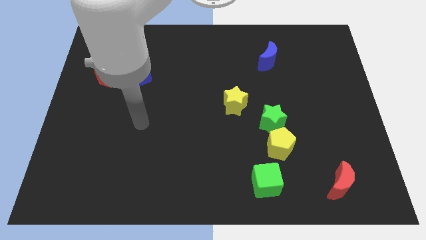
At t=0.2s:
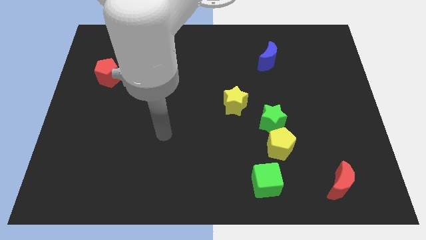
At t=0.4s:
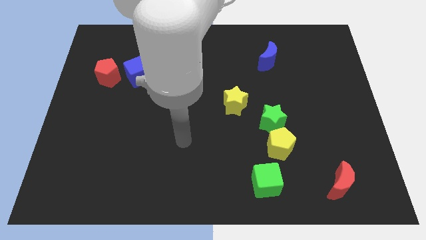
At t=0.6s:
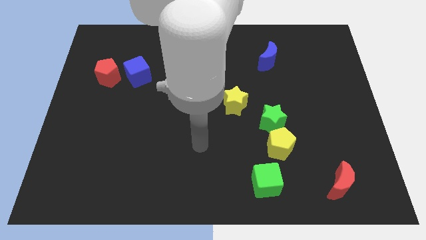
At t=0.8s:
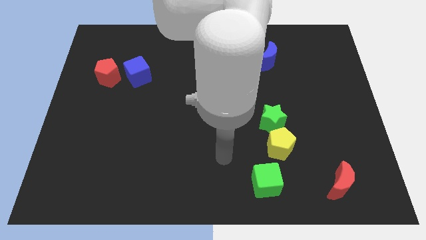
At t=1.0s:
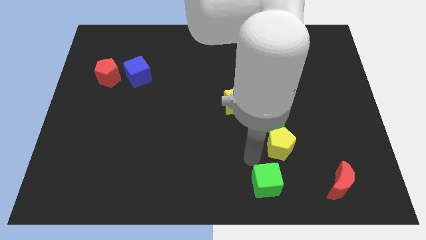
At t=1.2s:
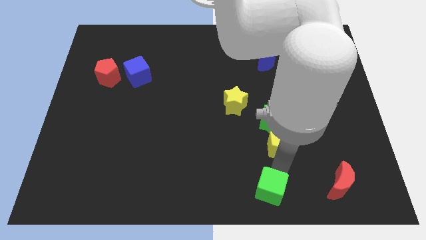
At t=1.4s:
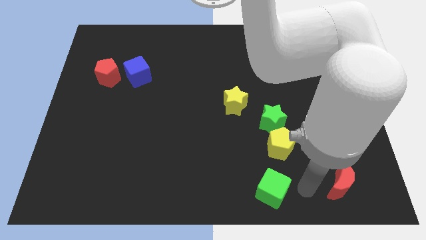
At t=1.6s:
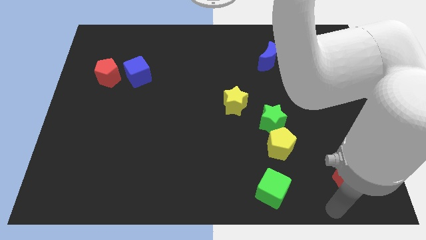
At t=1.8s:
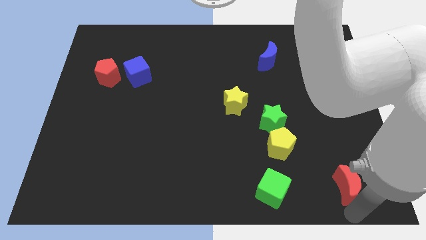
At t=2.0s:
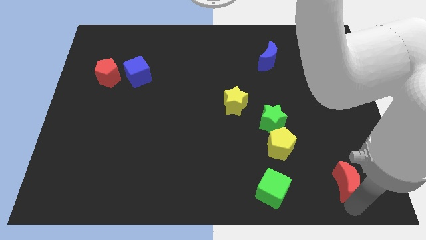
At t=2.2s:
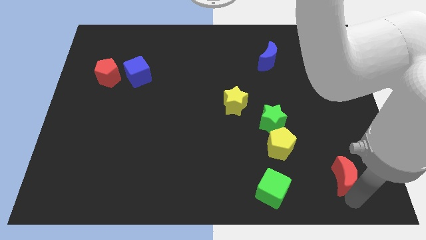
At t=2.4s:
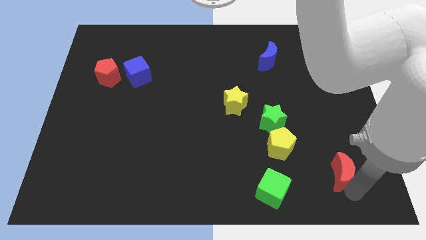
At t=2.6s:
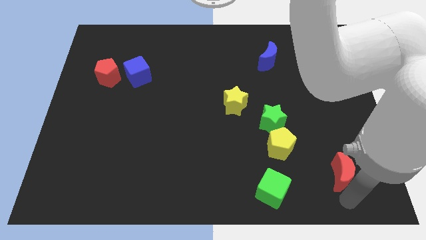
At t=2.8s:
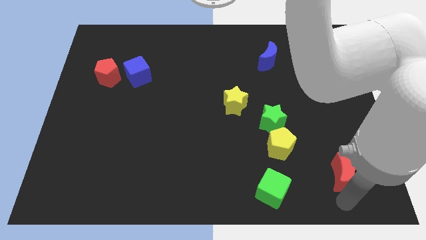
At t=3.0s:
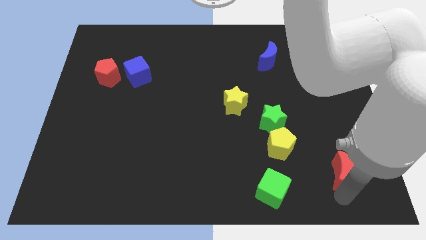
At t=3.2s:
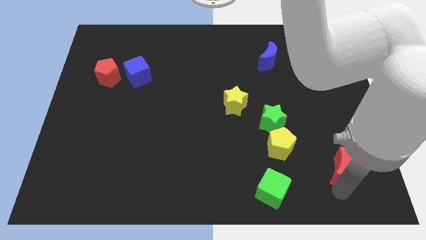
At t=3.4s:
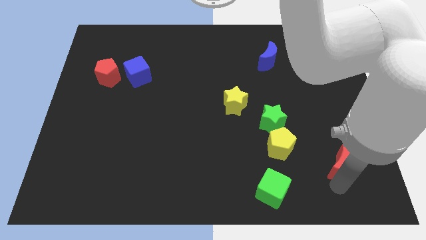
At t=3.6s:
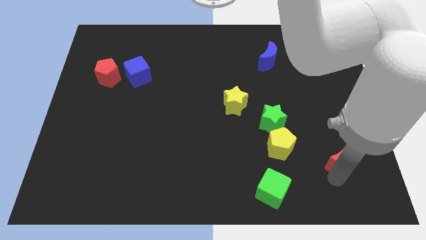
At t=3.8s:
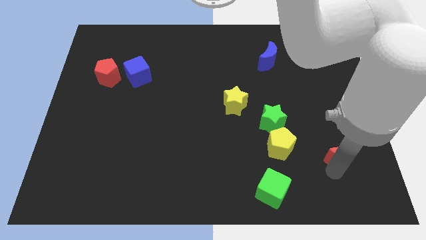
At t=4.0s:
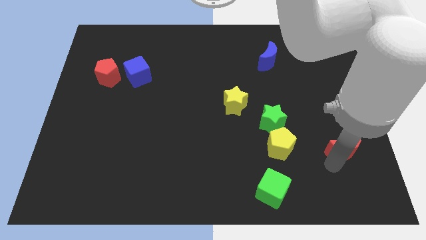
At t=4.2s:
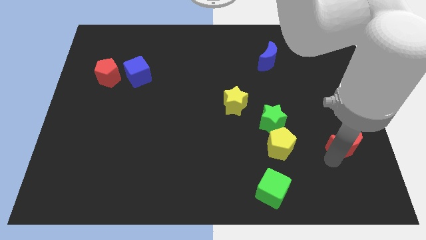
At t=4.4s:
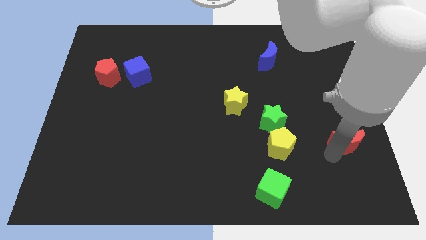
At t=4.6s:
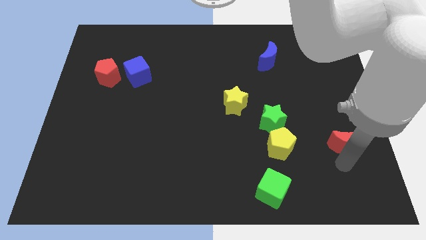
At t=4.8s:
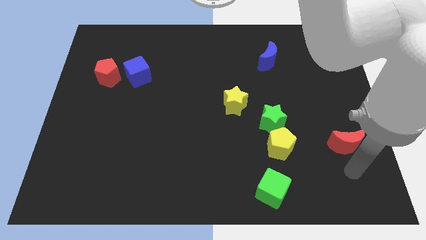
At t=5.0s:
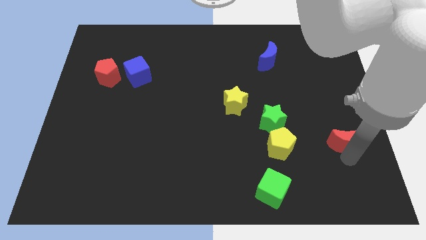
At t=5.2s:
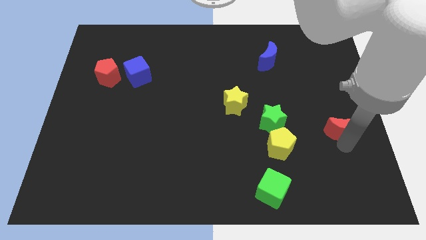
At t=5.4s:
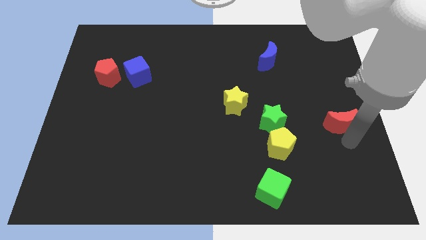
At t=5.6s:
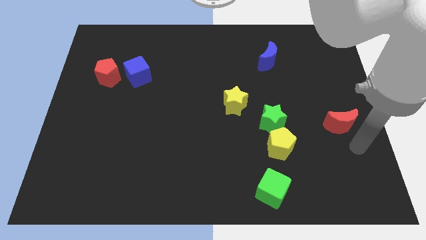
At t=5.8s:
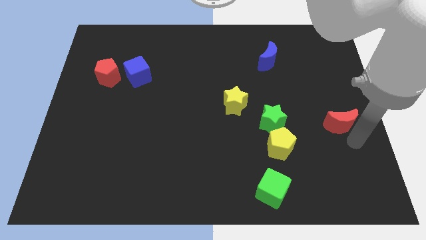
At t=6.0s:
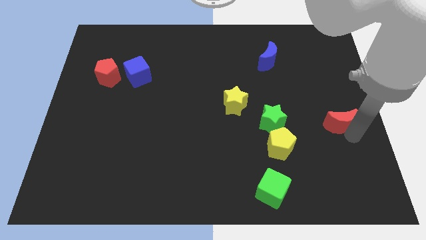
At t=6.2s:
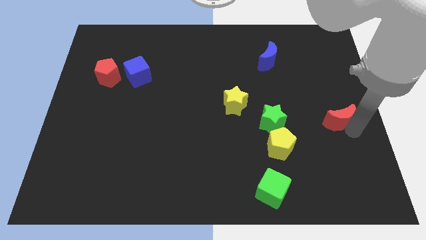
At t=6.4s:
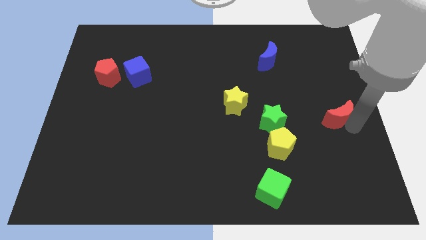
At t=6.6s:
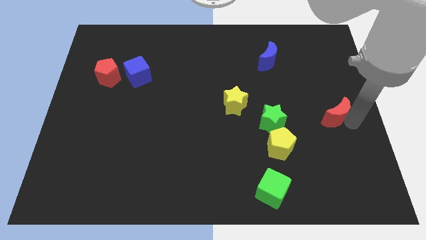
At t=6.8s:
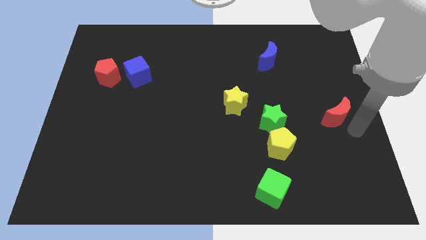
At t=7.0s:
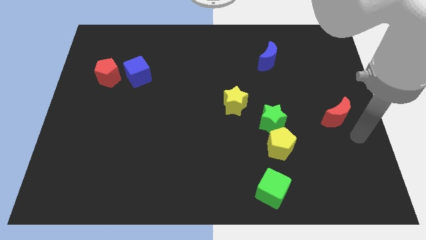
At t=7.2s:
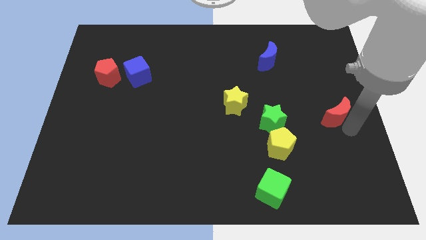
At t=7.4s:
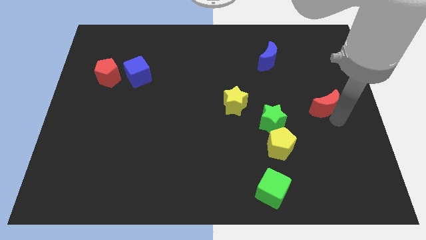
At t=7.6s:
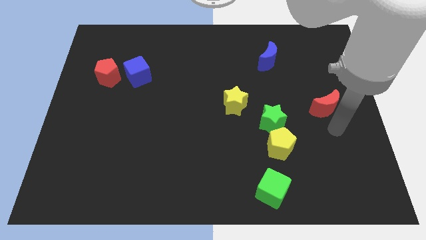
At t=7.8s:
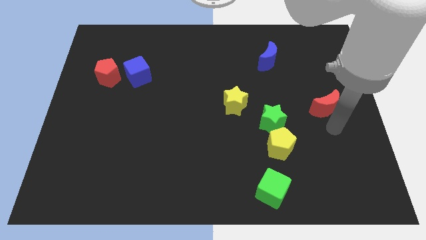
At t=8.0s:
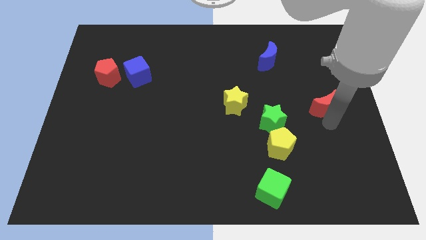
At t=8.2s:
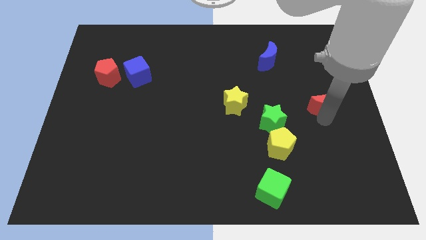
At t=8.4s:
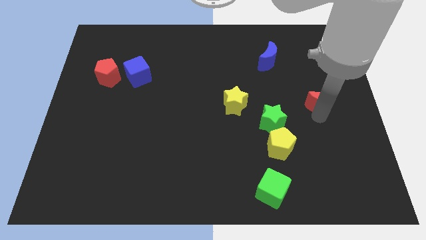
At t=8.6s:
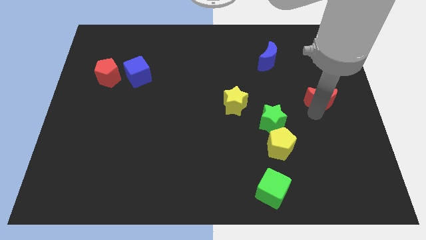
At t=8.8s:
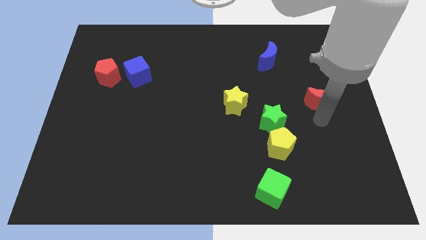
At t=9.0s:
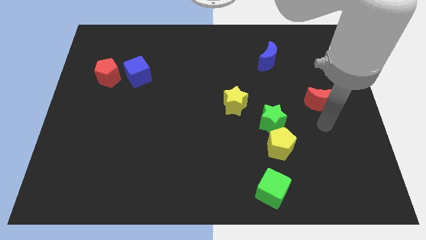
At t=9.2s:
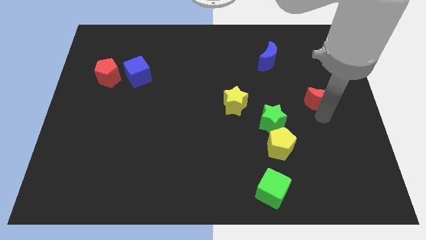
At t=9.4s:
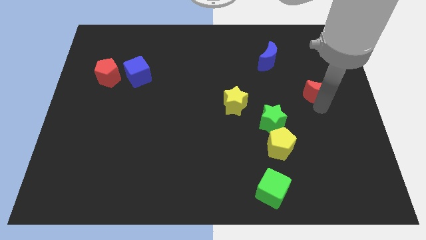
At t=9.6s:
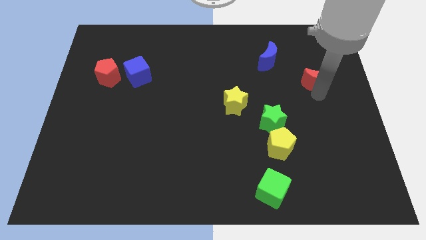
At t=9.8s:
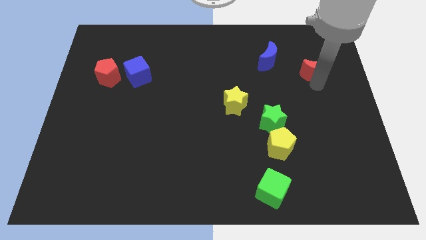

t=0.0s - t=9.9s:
slide the red moon to the right of the blue moon

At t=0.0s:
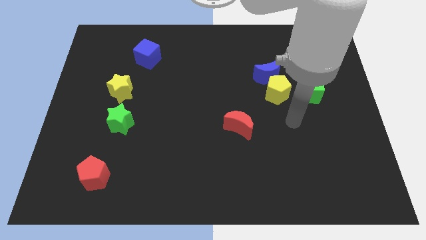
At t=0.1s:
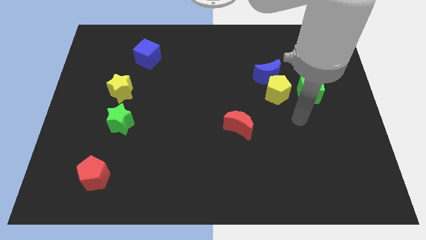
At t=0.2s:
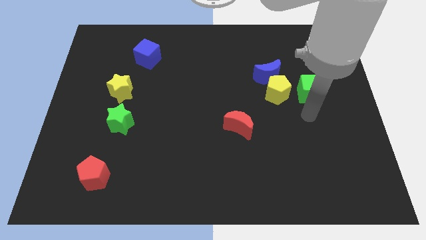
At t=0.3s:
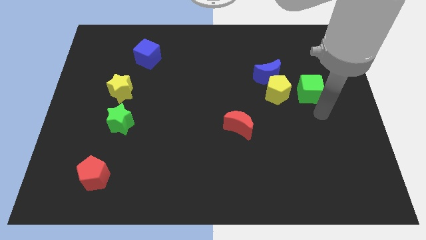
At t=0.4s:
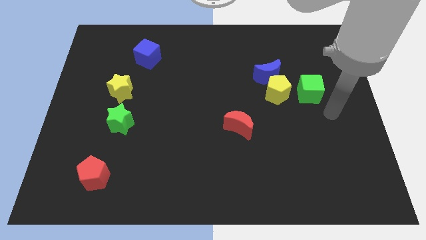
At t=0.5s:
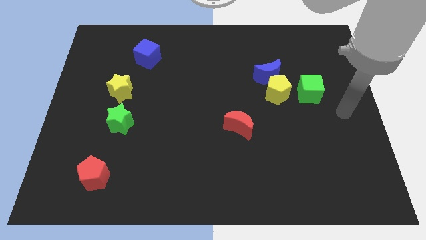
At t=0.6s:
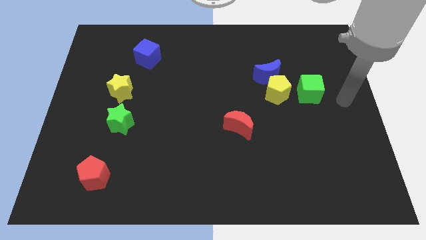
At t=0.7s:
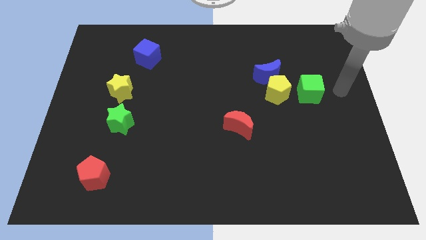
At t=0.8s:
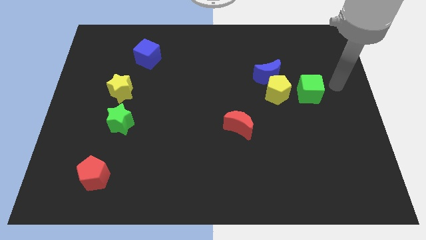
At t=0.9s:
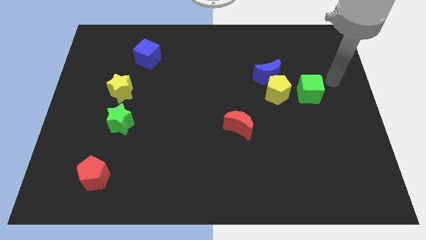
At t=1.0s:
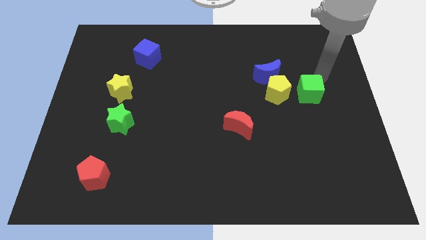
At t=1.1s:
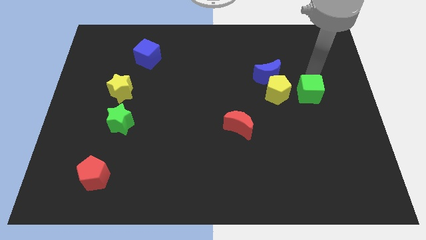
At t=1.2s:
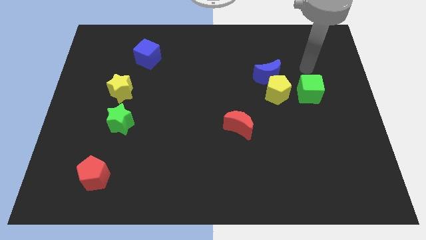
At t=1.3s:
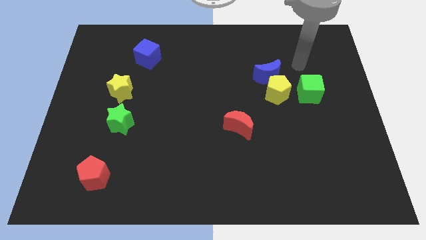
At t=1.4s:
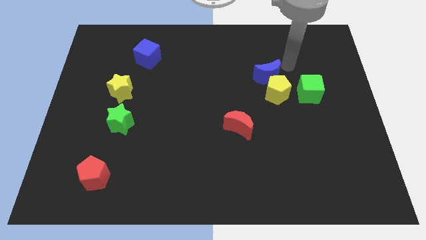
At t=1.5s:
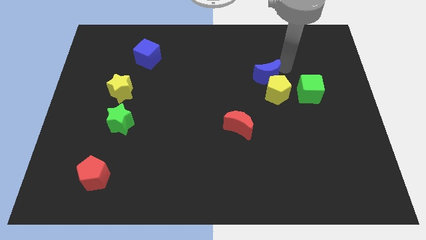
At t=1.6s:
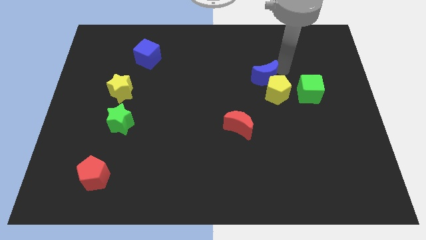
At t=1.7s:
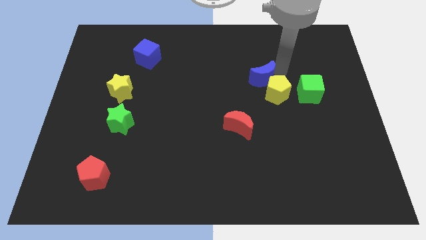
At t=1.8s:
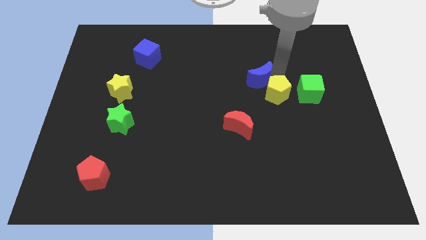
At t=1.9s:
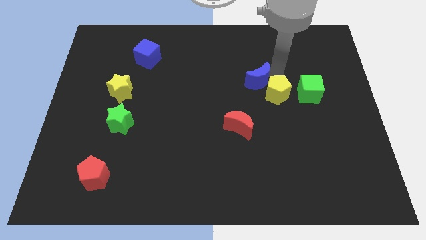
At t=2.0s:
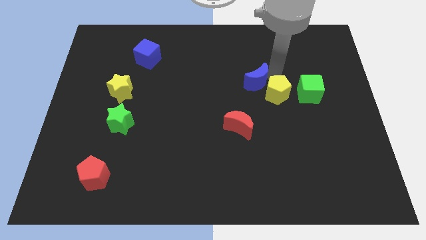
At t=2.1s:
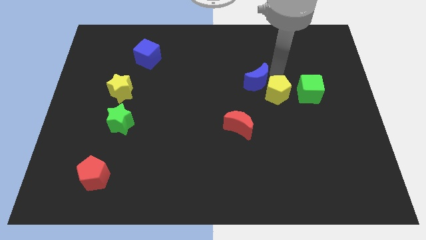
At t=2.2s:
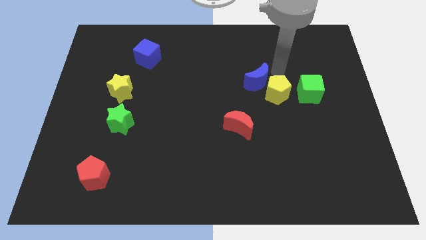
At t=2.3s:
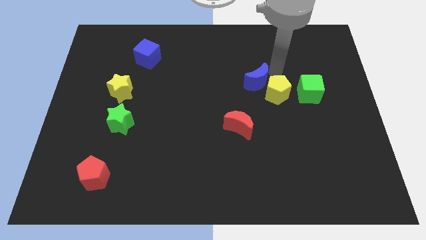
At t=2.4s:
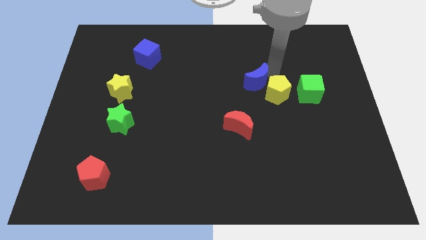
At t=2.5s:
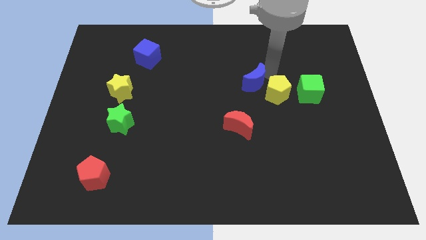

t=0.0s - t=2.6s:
slide the blue moon to the top of the red moon
